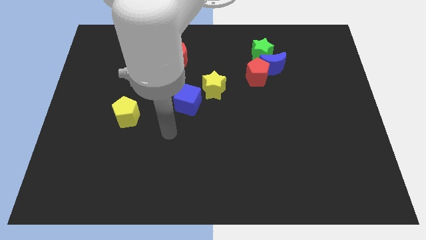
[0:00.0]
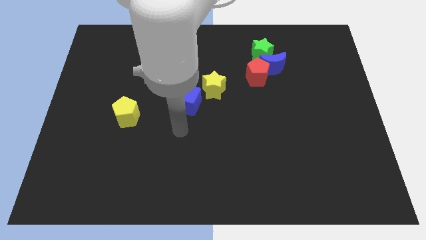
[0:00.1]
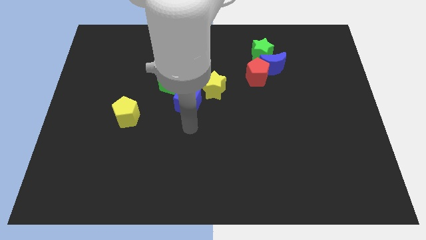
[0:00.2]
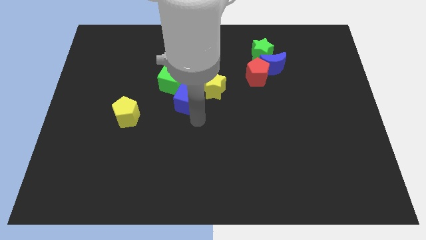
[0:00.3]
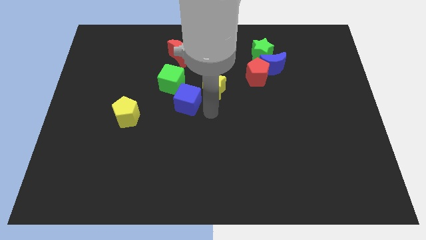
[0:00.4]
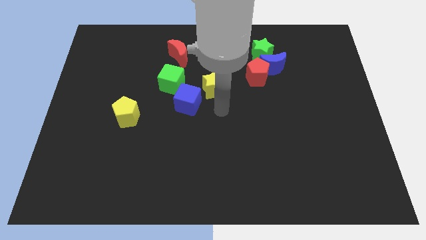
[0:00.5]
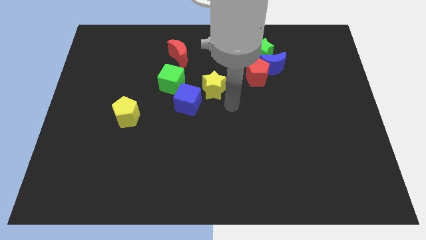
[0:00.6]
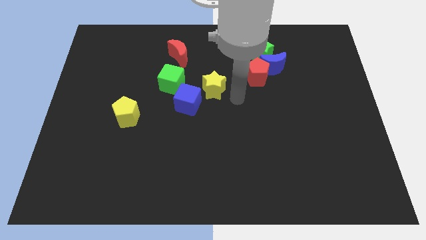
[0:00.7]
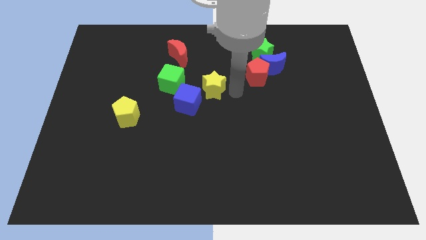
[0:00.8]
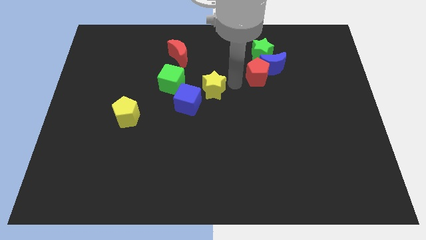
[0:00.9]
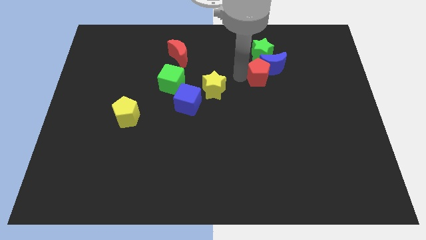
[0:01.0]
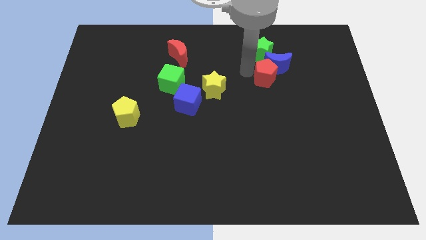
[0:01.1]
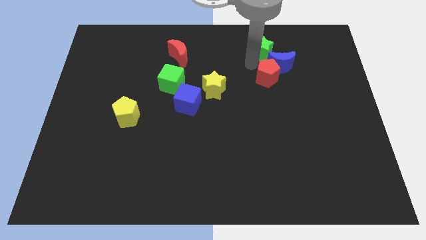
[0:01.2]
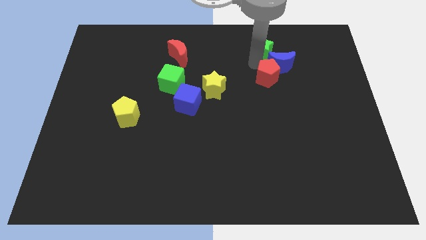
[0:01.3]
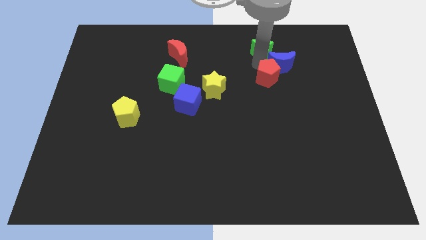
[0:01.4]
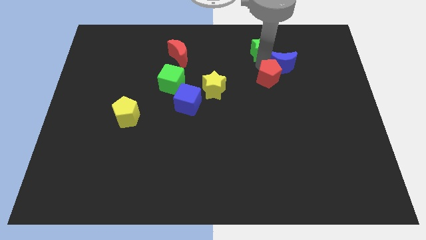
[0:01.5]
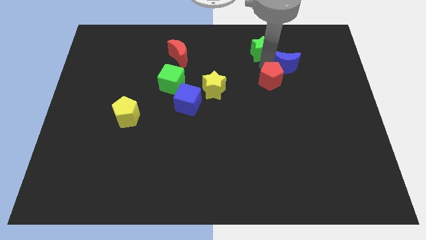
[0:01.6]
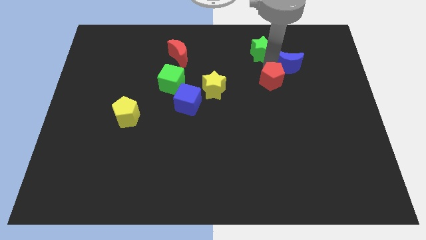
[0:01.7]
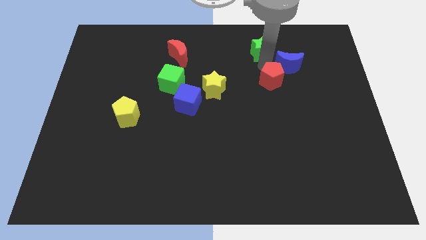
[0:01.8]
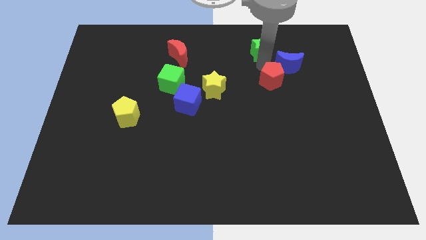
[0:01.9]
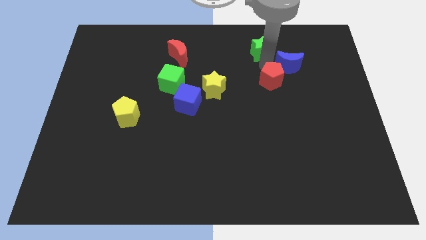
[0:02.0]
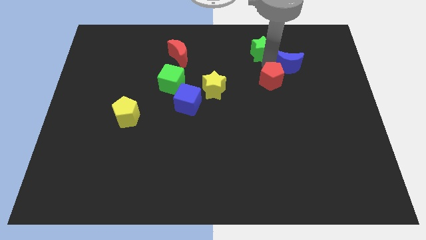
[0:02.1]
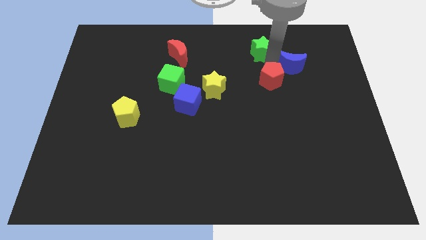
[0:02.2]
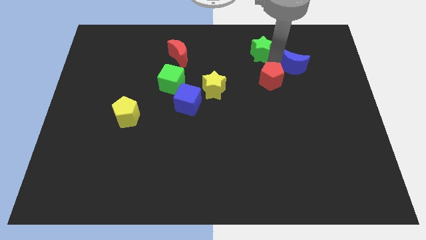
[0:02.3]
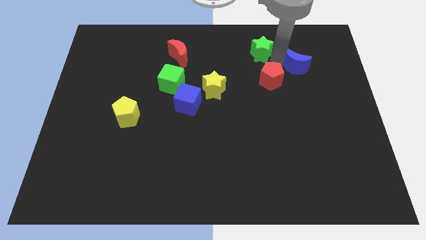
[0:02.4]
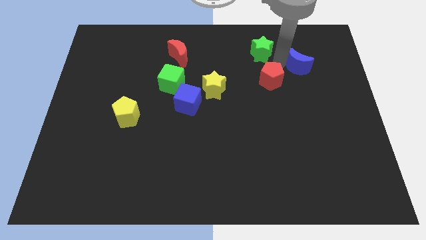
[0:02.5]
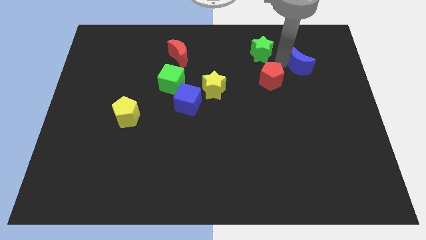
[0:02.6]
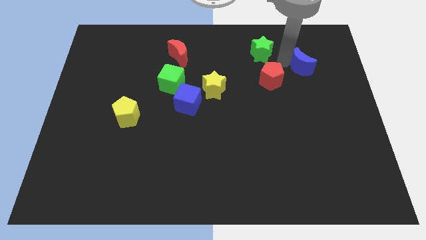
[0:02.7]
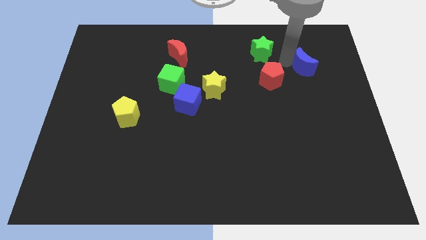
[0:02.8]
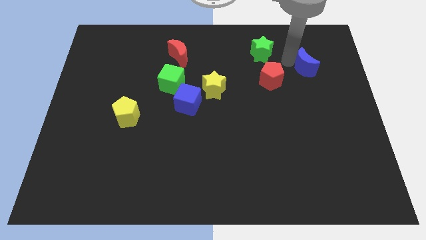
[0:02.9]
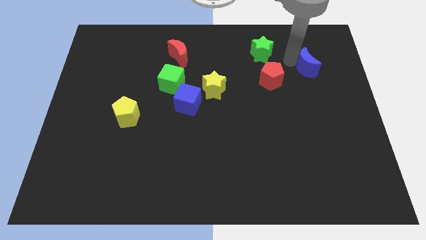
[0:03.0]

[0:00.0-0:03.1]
separate the blue moon from the red pentagon and green star

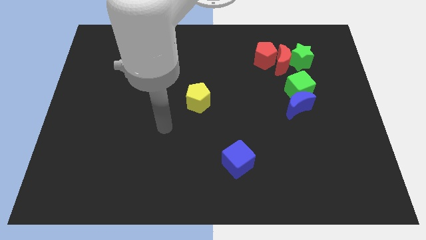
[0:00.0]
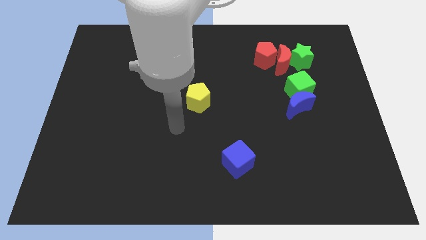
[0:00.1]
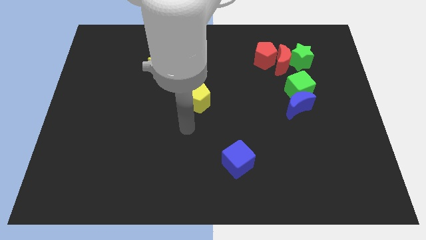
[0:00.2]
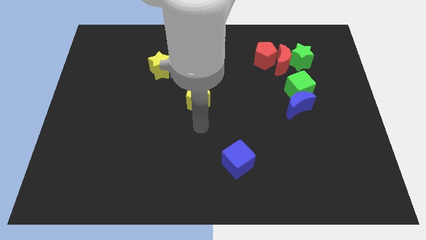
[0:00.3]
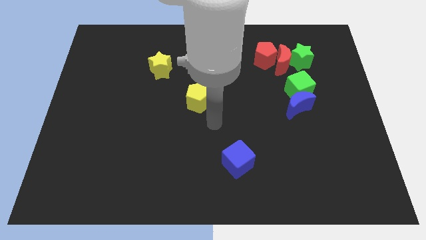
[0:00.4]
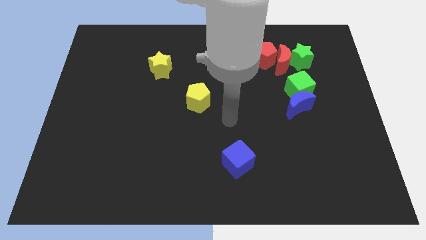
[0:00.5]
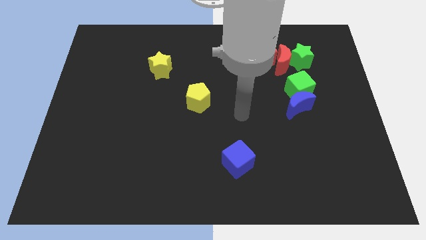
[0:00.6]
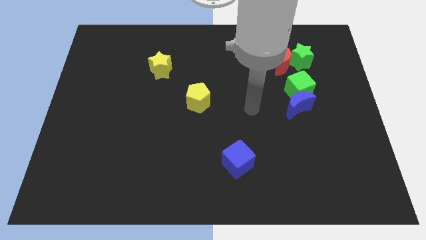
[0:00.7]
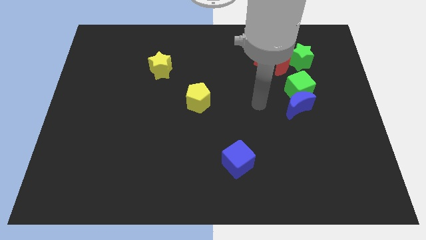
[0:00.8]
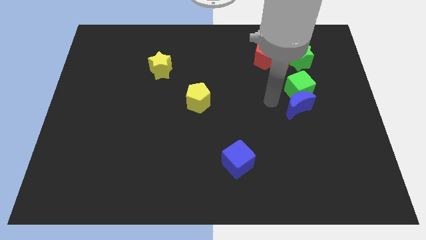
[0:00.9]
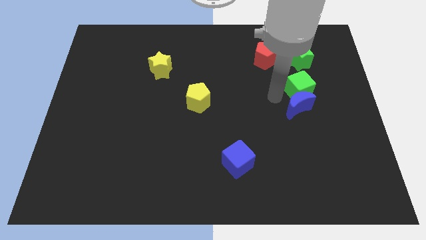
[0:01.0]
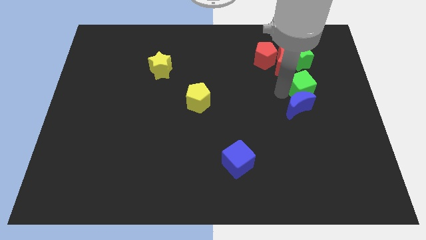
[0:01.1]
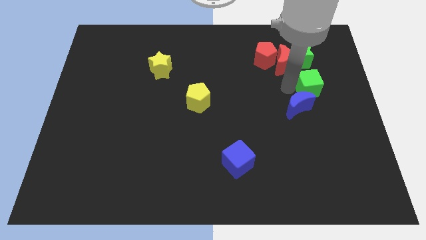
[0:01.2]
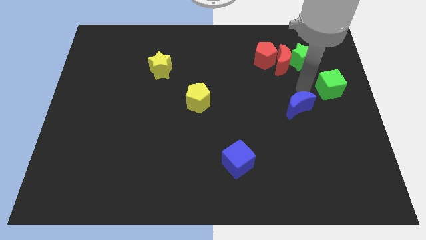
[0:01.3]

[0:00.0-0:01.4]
separate the blue moon from the green cube

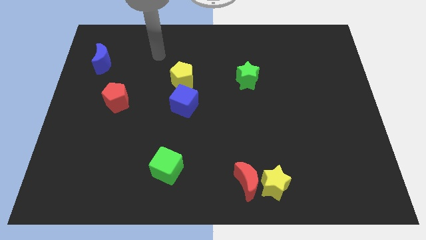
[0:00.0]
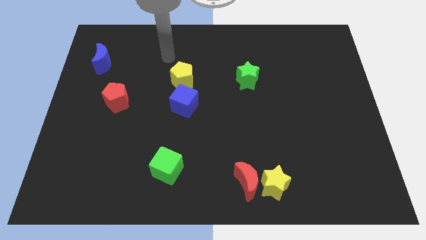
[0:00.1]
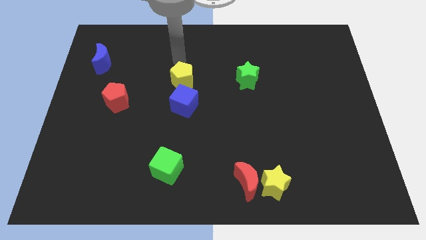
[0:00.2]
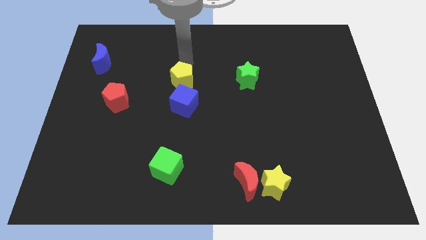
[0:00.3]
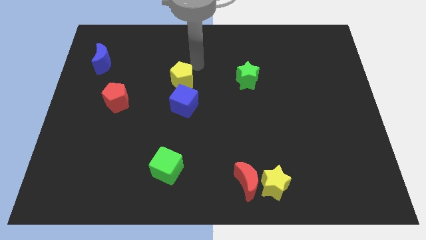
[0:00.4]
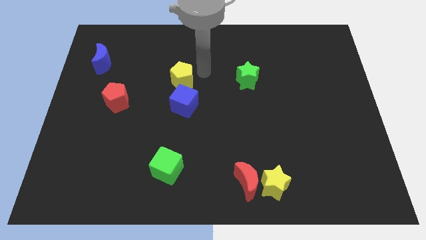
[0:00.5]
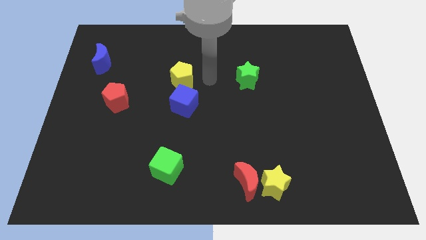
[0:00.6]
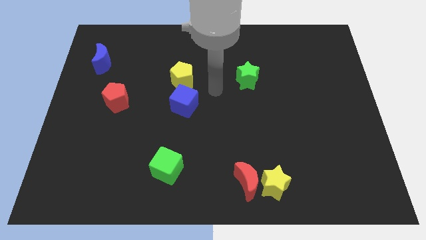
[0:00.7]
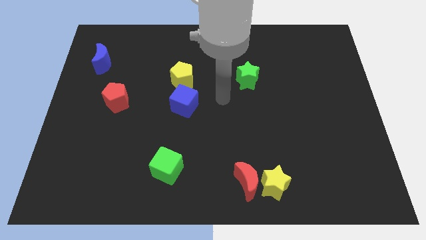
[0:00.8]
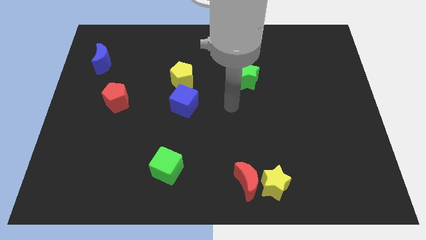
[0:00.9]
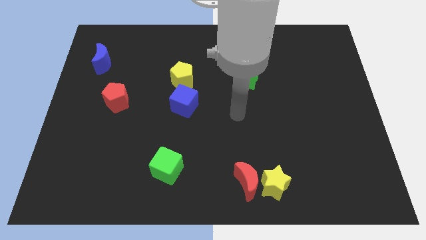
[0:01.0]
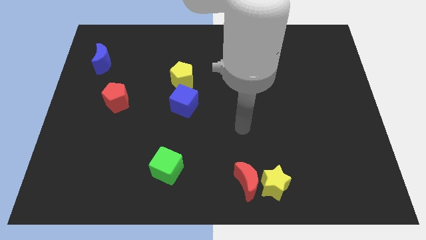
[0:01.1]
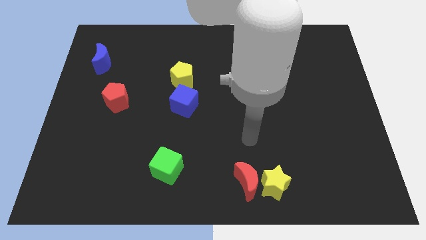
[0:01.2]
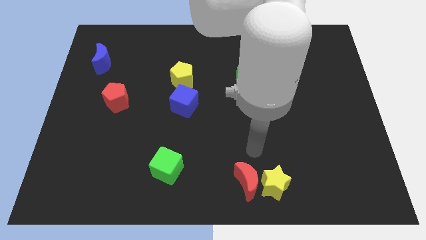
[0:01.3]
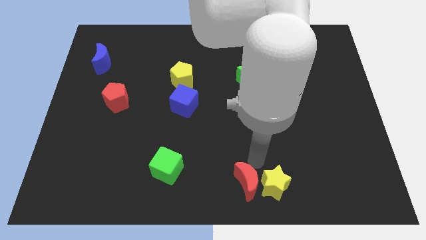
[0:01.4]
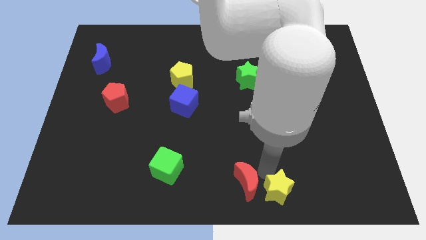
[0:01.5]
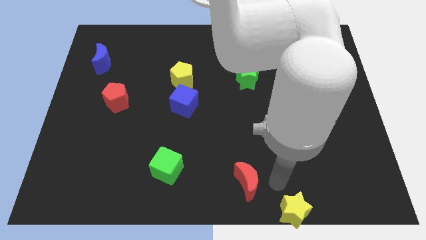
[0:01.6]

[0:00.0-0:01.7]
move the red moon away from the yellow star

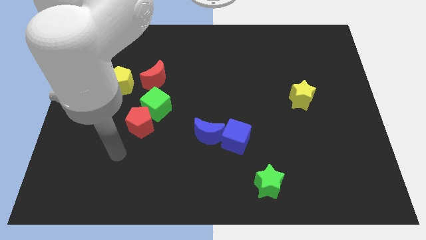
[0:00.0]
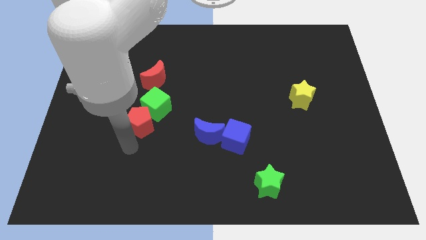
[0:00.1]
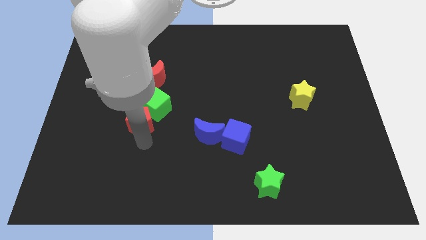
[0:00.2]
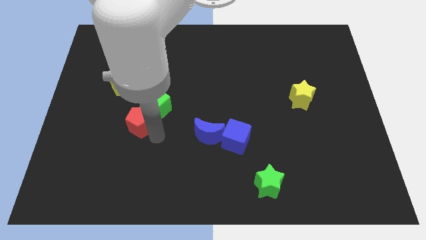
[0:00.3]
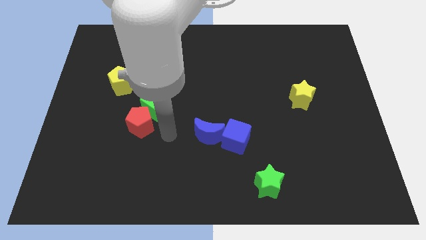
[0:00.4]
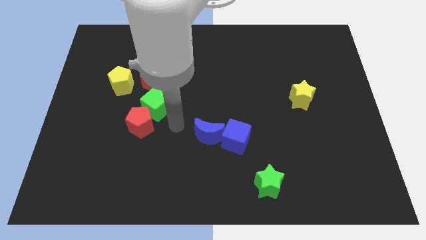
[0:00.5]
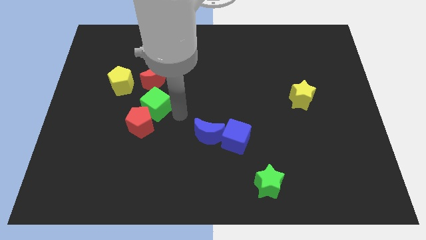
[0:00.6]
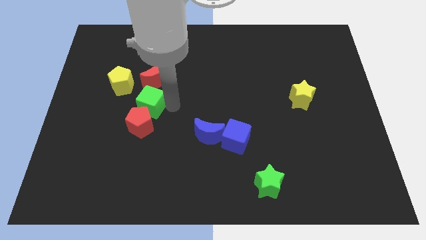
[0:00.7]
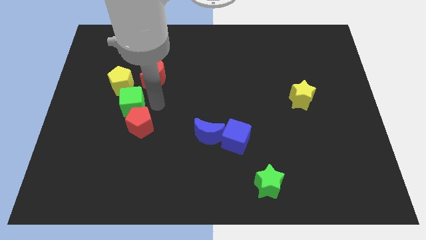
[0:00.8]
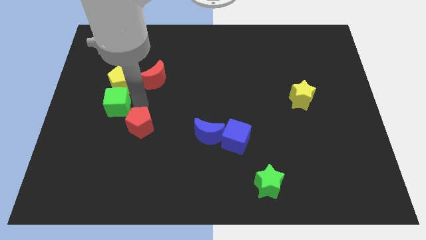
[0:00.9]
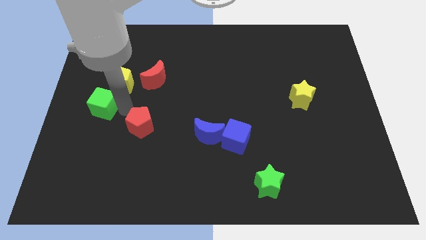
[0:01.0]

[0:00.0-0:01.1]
separate the red pentagon from the green cube

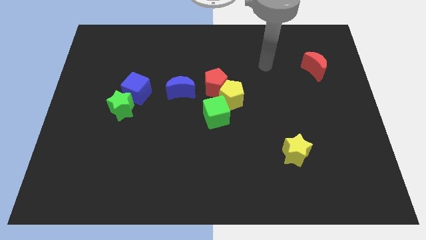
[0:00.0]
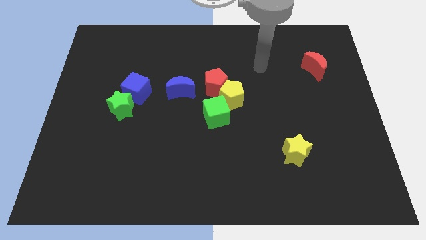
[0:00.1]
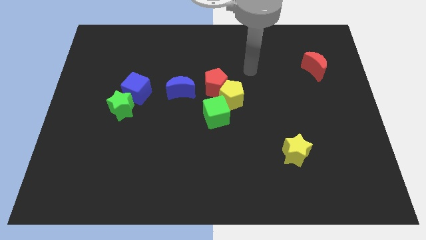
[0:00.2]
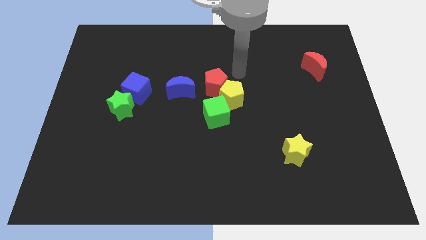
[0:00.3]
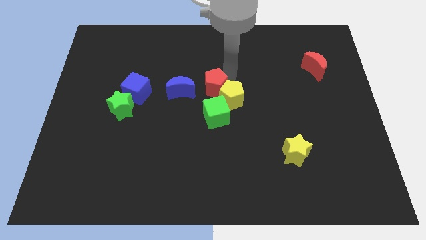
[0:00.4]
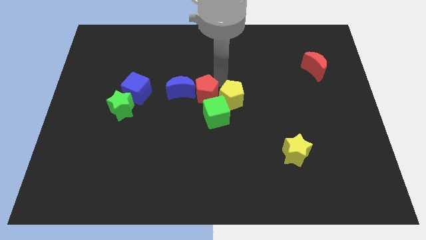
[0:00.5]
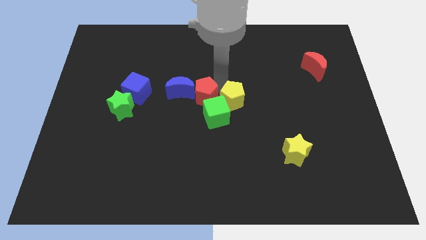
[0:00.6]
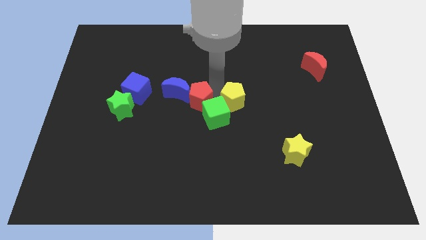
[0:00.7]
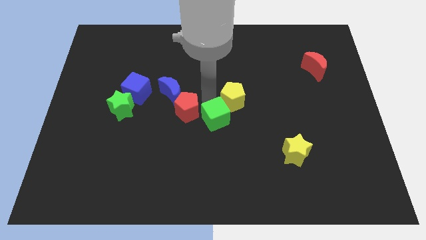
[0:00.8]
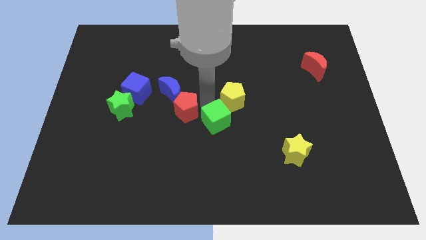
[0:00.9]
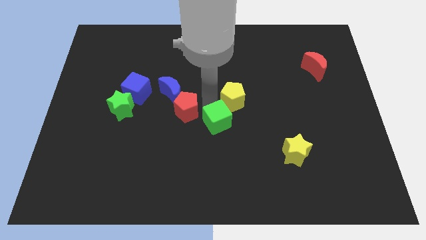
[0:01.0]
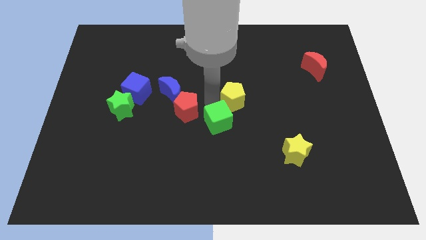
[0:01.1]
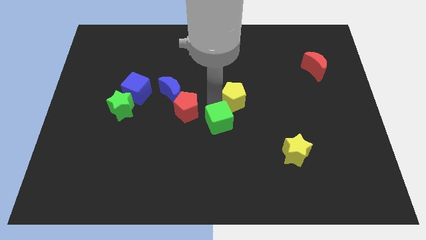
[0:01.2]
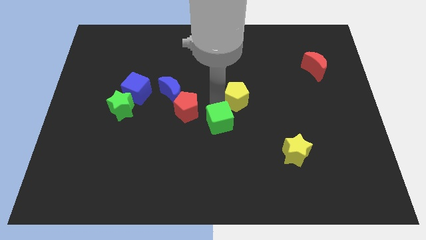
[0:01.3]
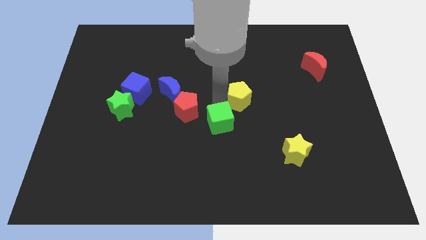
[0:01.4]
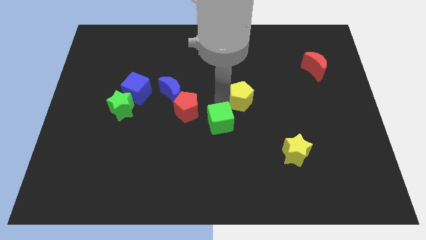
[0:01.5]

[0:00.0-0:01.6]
pull the yellow pentagon apart from the red pentagon and green cube

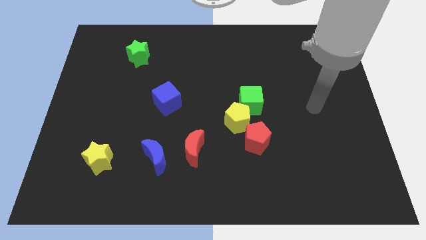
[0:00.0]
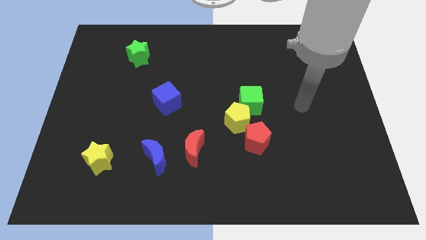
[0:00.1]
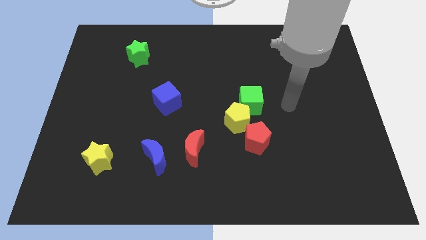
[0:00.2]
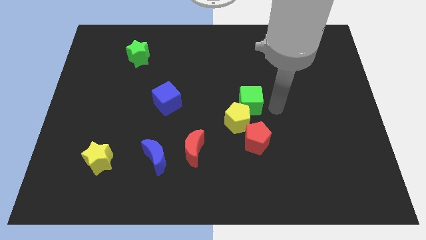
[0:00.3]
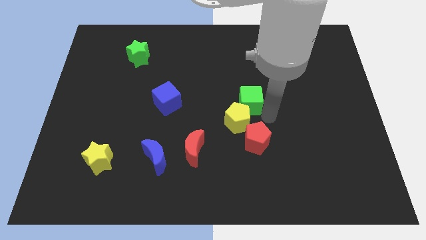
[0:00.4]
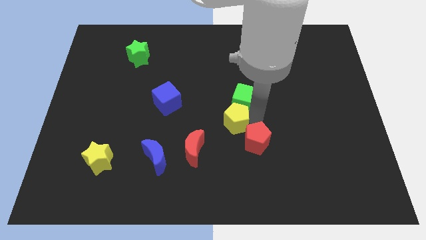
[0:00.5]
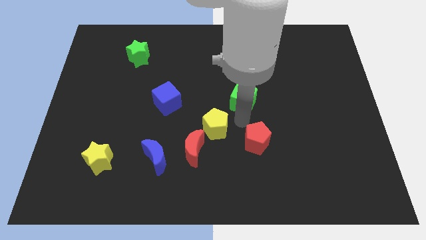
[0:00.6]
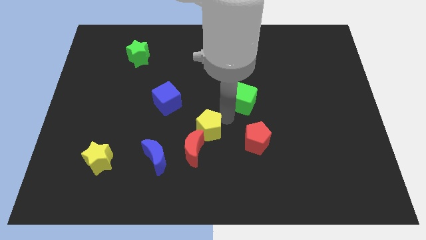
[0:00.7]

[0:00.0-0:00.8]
separate the green cube from the yellow pentagon
